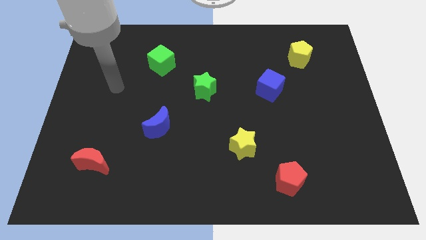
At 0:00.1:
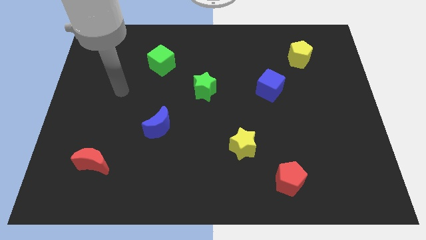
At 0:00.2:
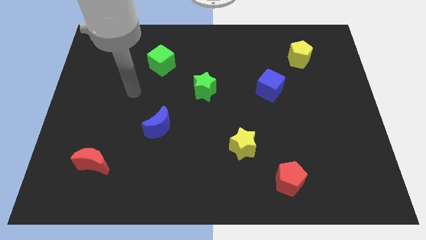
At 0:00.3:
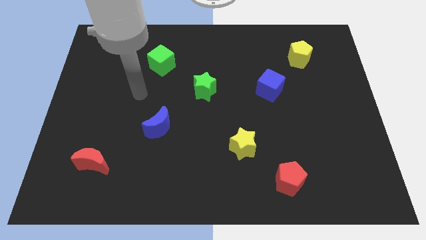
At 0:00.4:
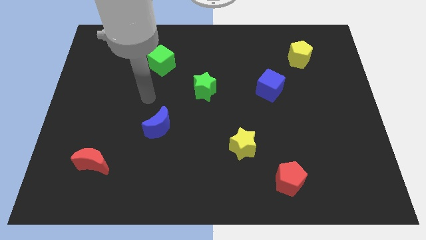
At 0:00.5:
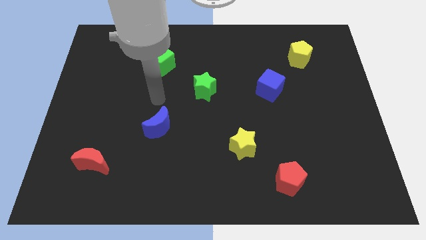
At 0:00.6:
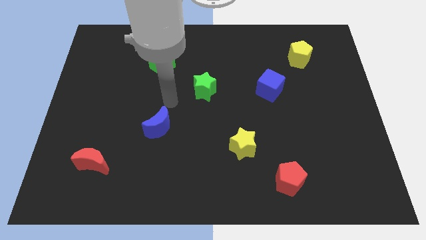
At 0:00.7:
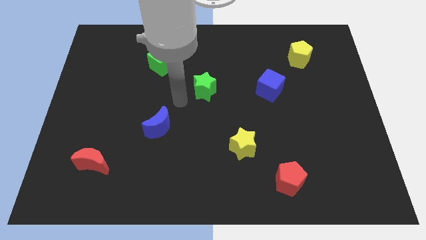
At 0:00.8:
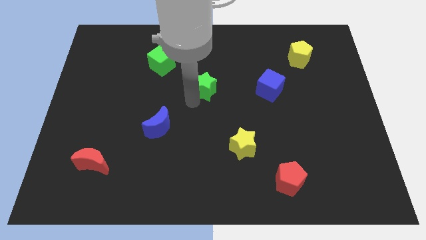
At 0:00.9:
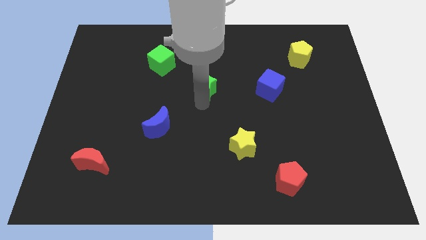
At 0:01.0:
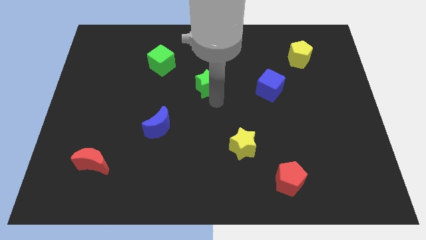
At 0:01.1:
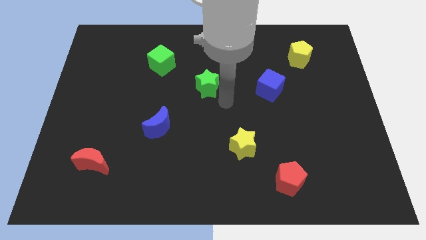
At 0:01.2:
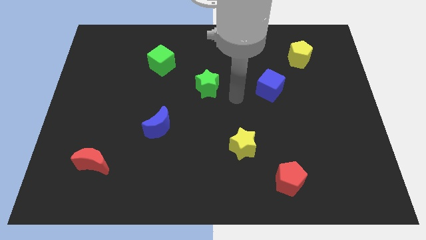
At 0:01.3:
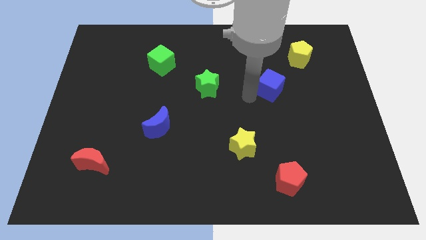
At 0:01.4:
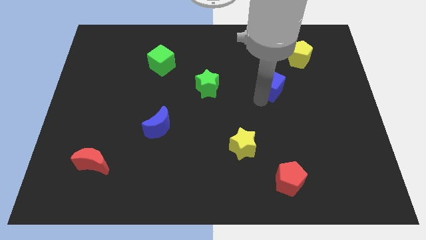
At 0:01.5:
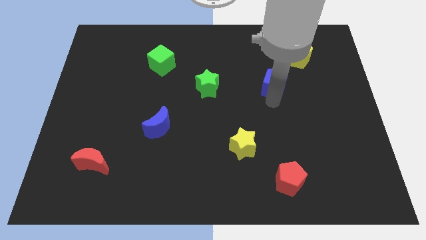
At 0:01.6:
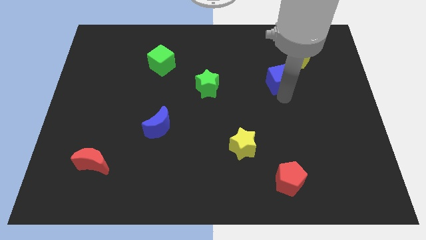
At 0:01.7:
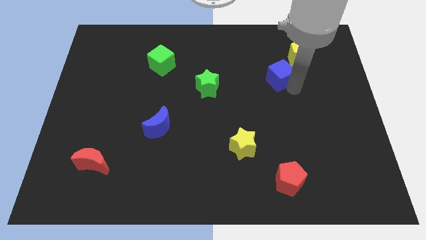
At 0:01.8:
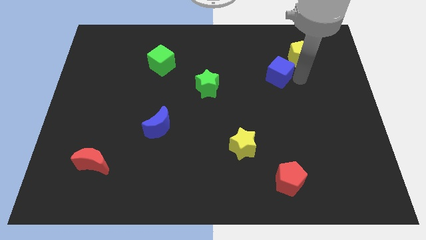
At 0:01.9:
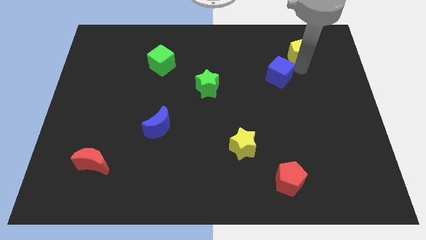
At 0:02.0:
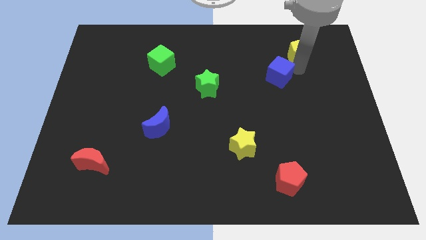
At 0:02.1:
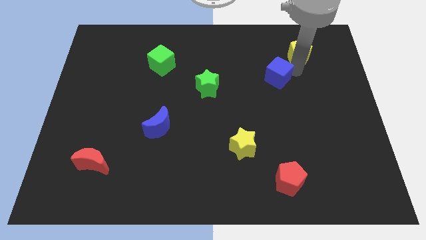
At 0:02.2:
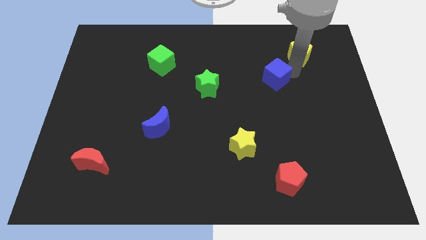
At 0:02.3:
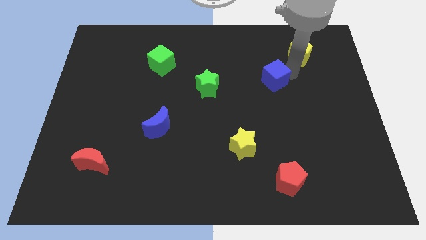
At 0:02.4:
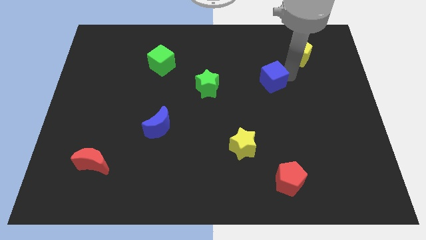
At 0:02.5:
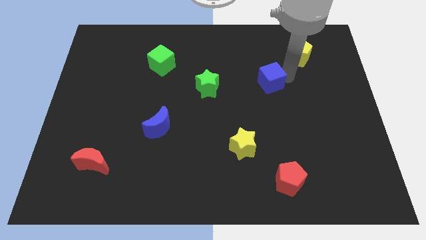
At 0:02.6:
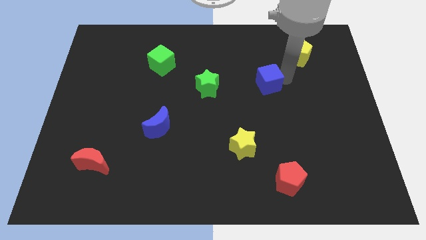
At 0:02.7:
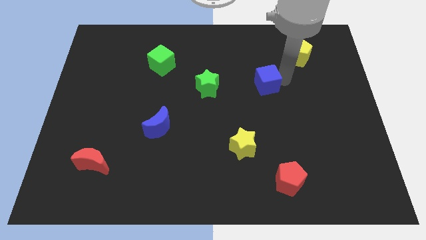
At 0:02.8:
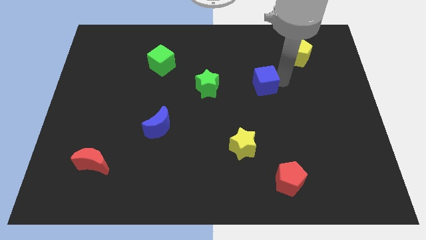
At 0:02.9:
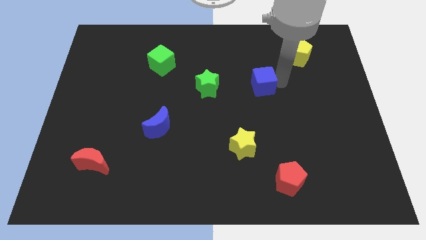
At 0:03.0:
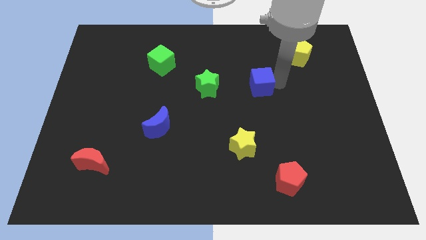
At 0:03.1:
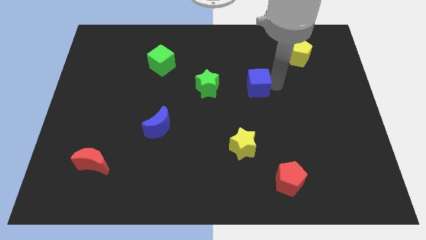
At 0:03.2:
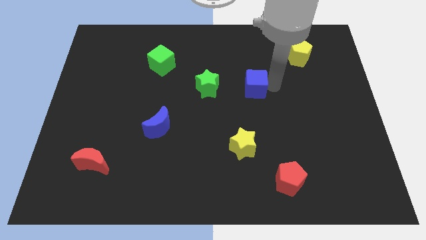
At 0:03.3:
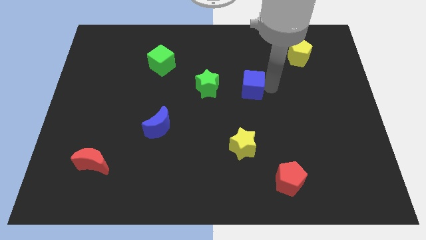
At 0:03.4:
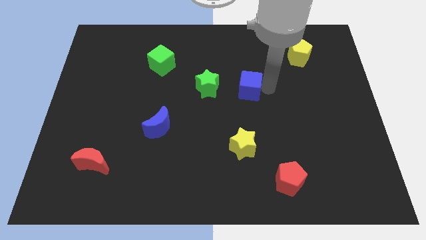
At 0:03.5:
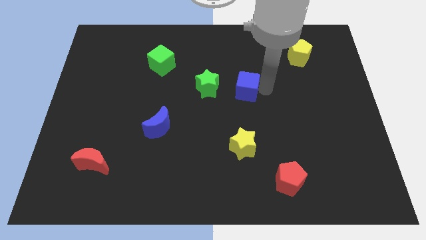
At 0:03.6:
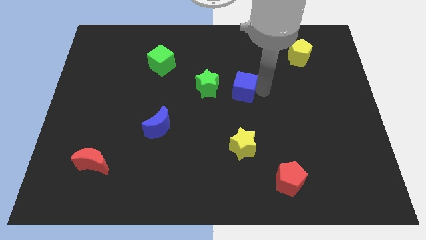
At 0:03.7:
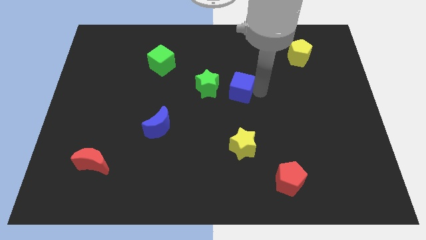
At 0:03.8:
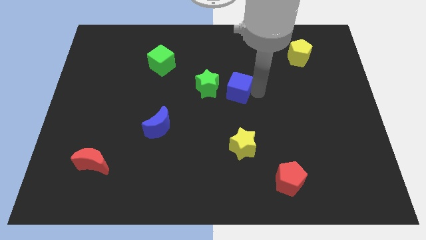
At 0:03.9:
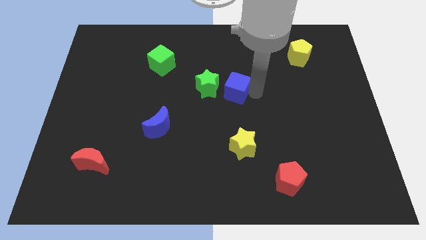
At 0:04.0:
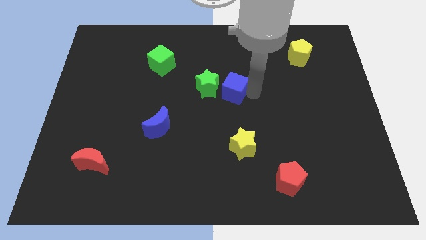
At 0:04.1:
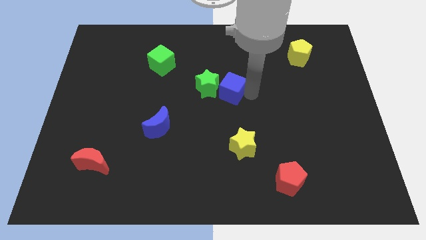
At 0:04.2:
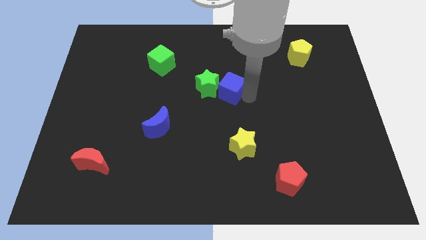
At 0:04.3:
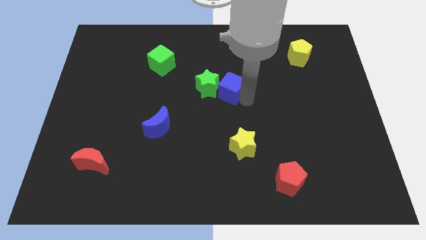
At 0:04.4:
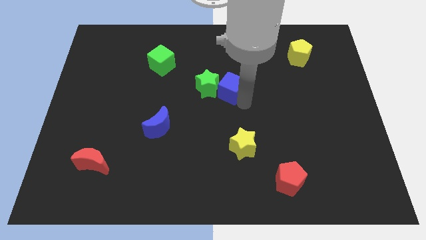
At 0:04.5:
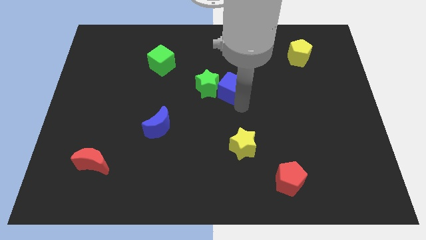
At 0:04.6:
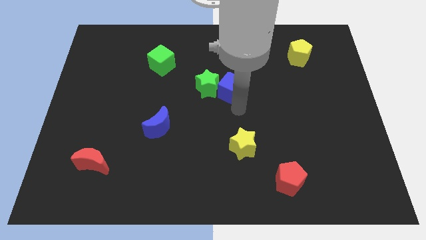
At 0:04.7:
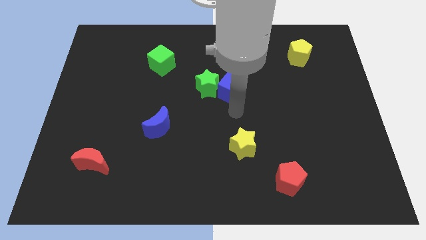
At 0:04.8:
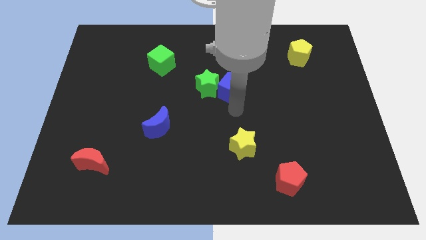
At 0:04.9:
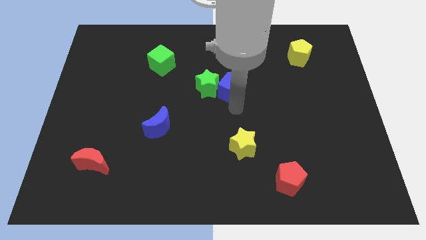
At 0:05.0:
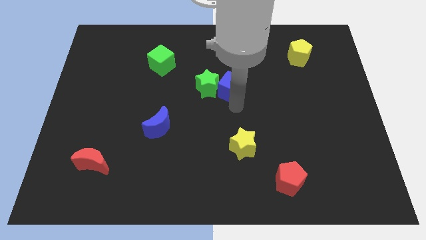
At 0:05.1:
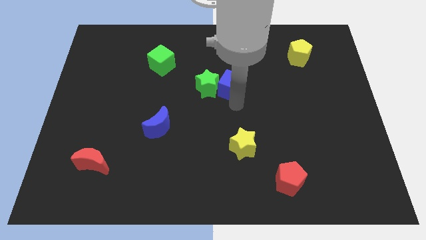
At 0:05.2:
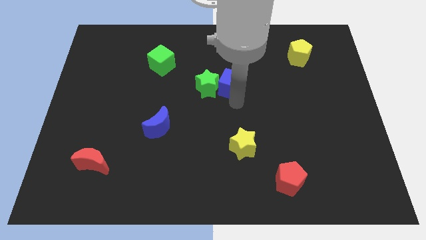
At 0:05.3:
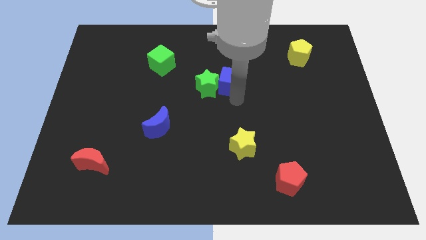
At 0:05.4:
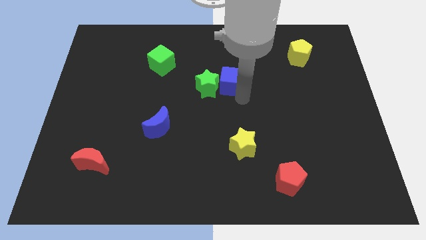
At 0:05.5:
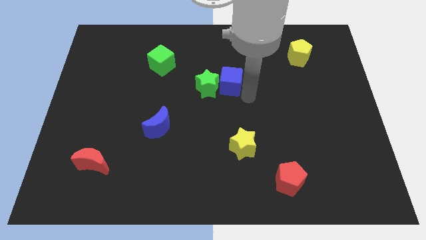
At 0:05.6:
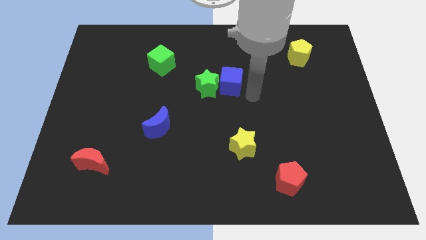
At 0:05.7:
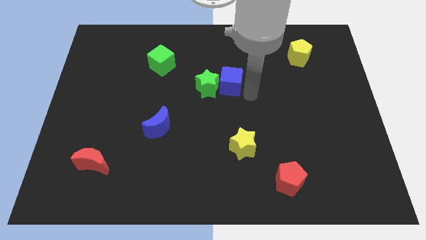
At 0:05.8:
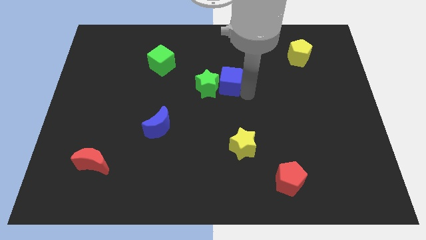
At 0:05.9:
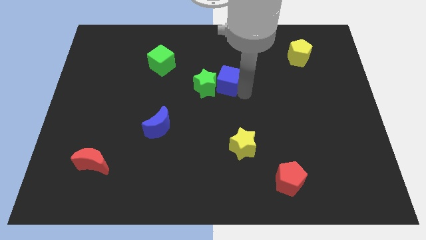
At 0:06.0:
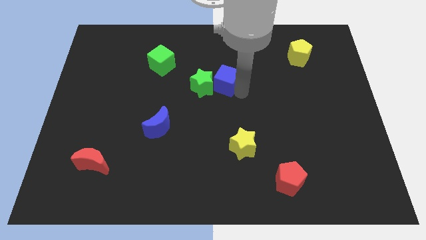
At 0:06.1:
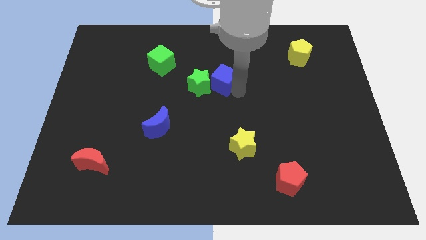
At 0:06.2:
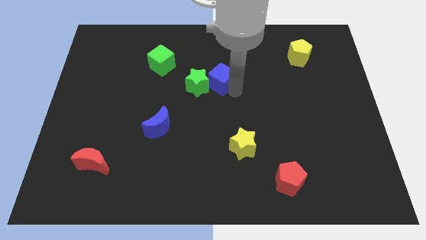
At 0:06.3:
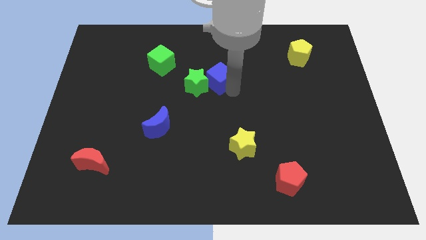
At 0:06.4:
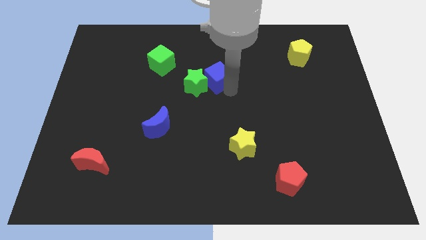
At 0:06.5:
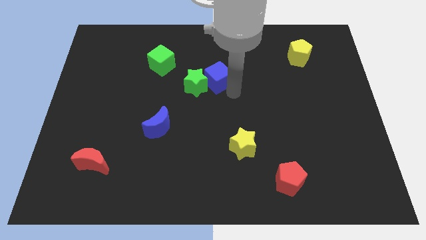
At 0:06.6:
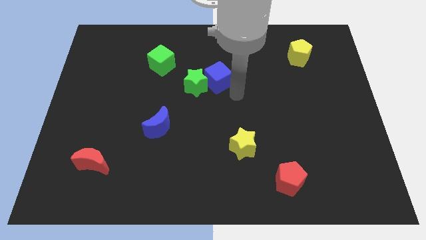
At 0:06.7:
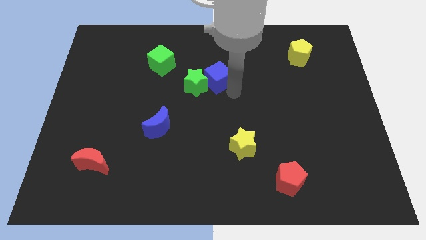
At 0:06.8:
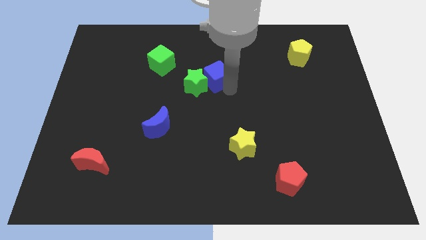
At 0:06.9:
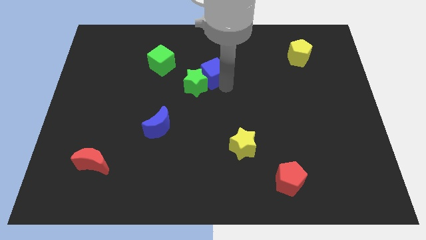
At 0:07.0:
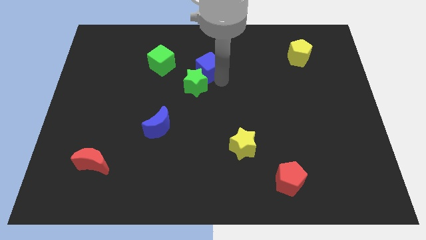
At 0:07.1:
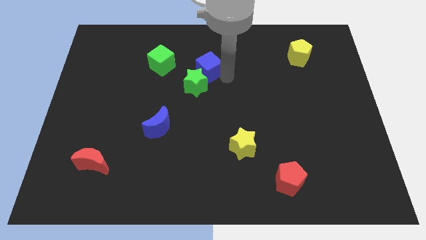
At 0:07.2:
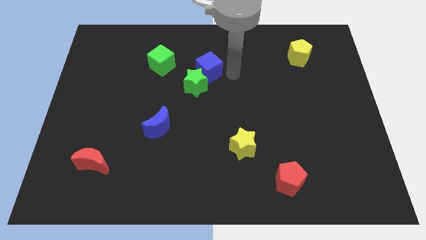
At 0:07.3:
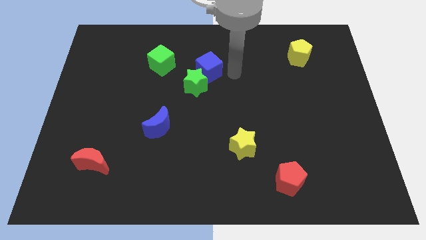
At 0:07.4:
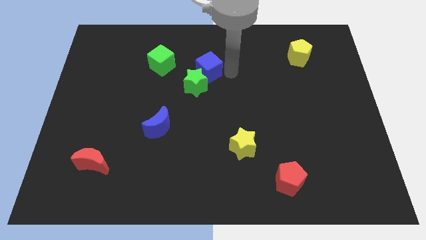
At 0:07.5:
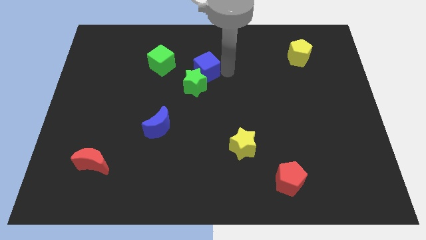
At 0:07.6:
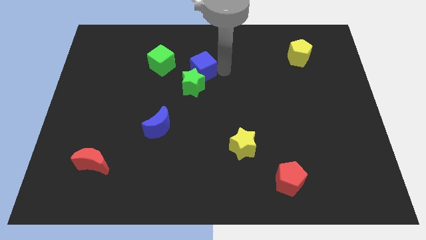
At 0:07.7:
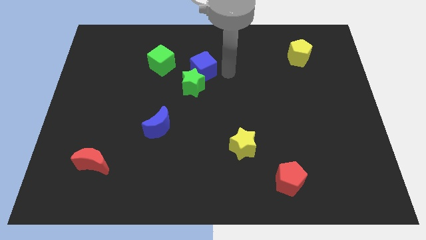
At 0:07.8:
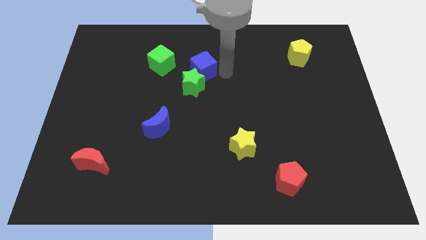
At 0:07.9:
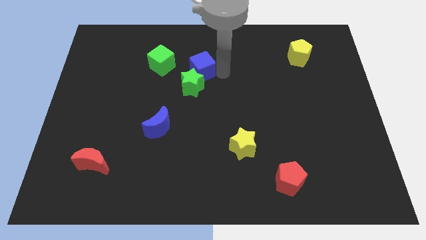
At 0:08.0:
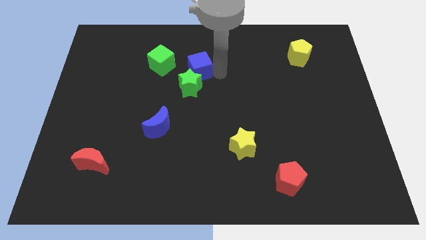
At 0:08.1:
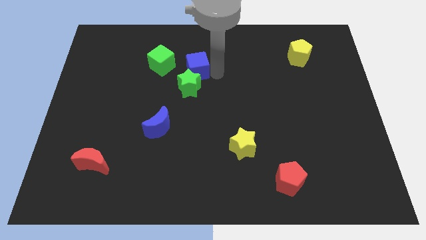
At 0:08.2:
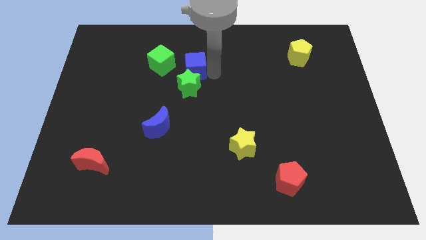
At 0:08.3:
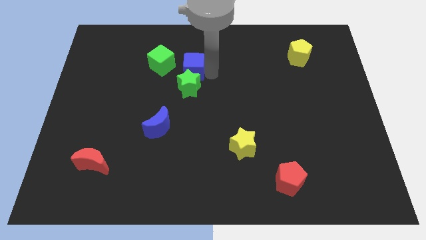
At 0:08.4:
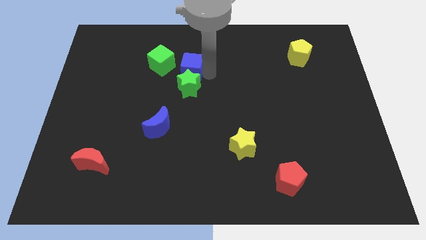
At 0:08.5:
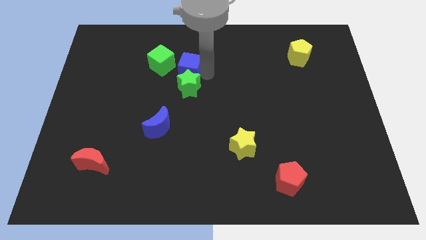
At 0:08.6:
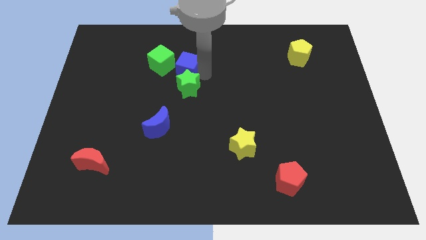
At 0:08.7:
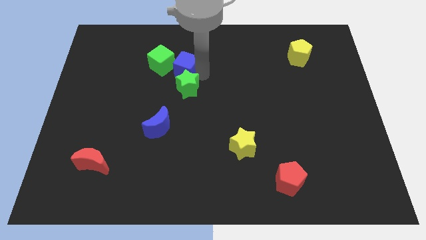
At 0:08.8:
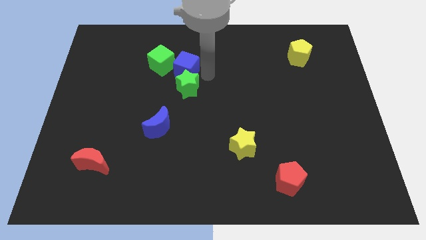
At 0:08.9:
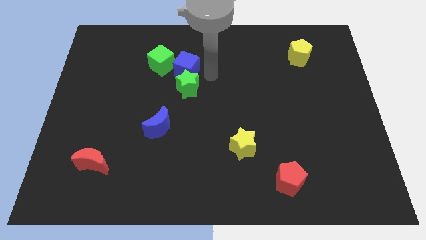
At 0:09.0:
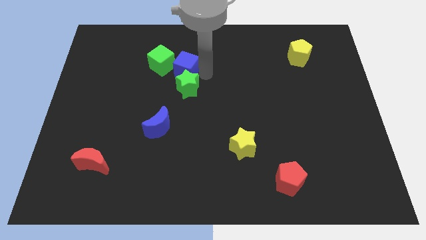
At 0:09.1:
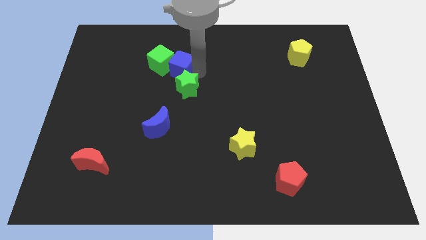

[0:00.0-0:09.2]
move the blue cube to the green cube
